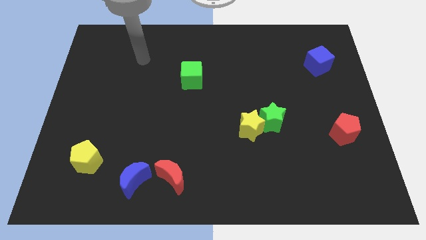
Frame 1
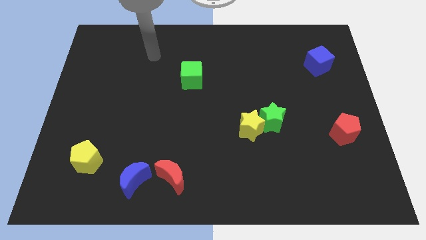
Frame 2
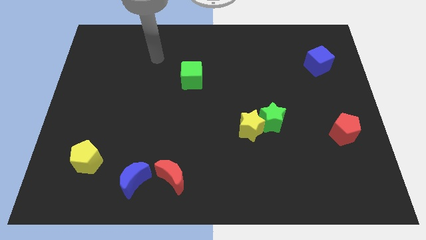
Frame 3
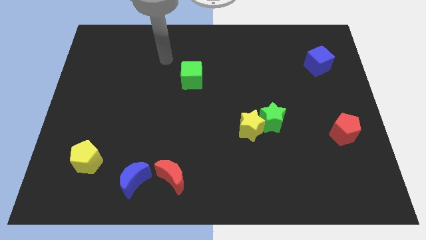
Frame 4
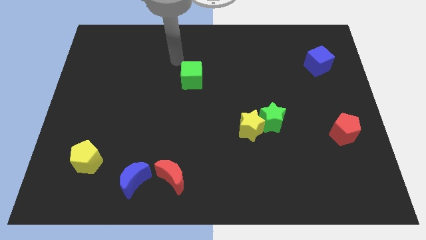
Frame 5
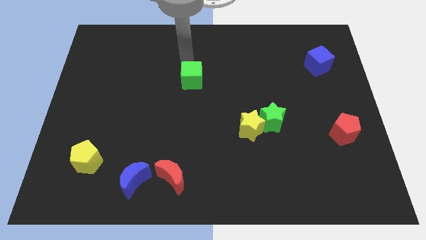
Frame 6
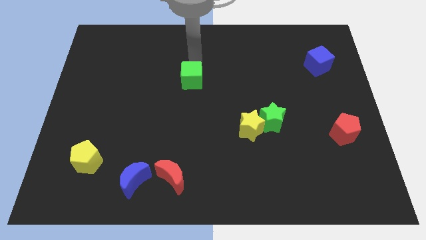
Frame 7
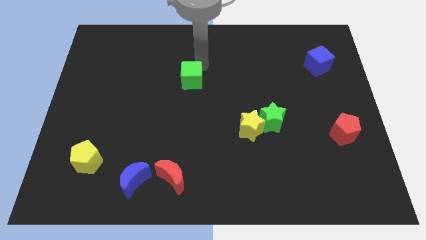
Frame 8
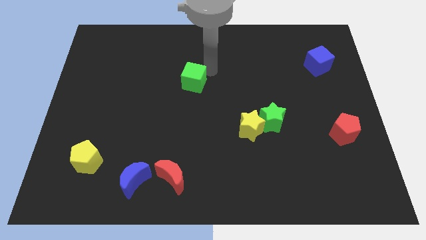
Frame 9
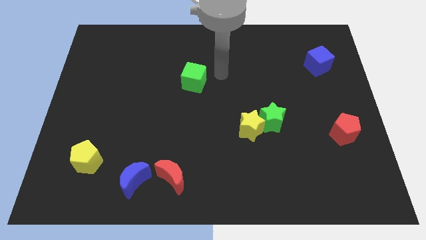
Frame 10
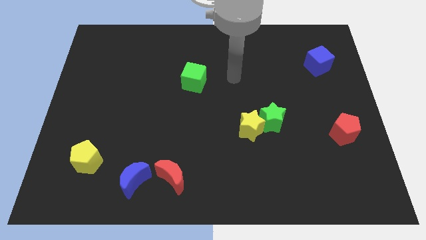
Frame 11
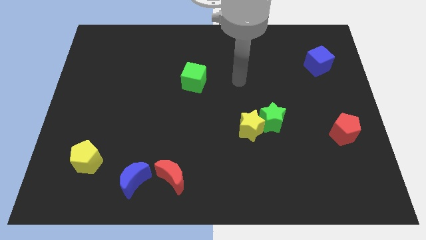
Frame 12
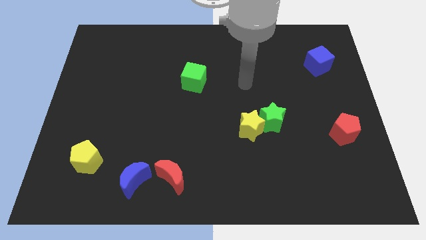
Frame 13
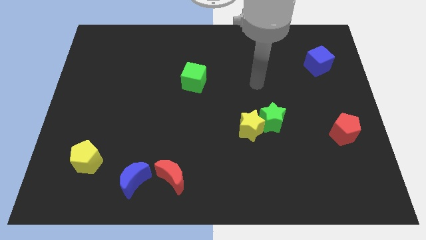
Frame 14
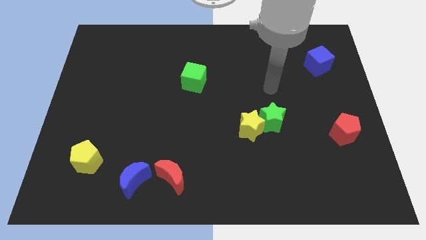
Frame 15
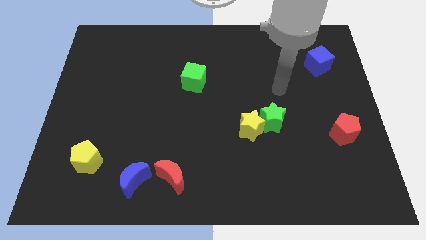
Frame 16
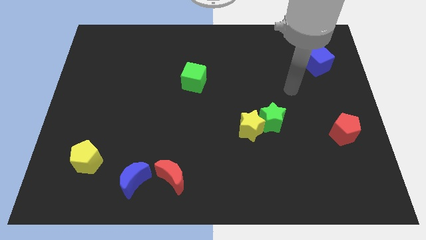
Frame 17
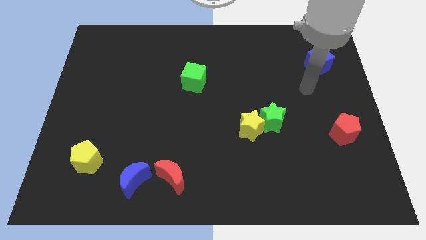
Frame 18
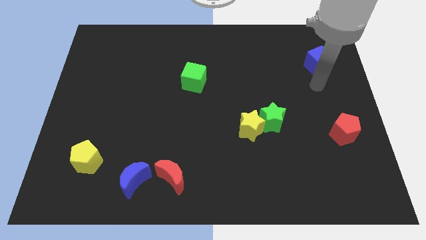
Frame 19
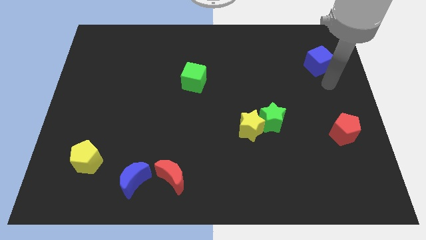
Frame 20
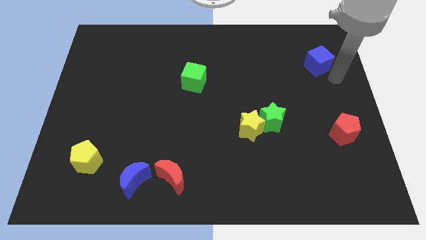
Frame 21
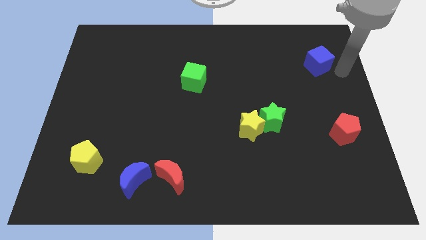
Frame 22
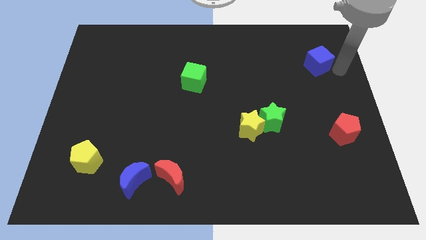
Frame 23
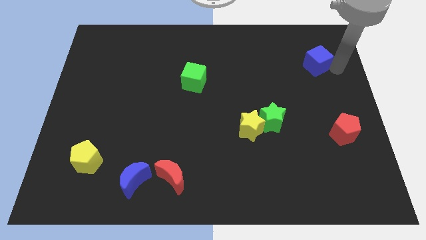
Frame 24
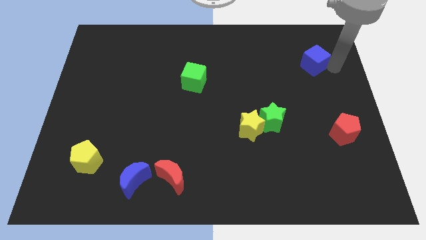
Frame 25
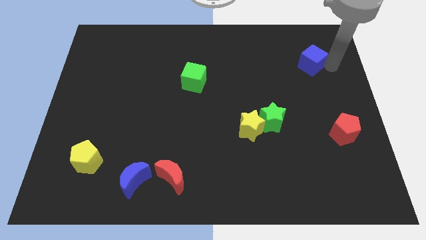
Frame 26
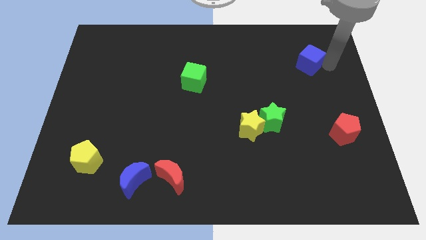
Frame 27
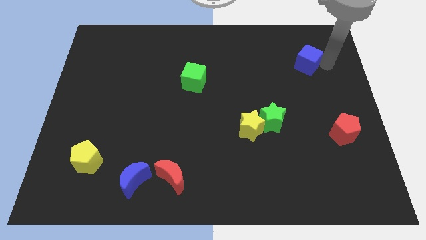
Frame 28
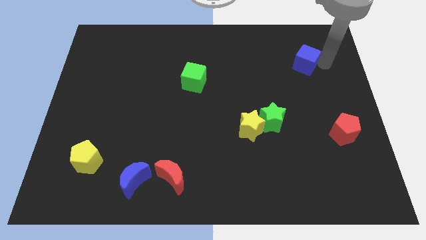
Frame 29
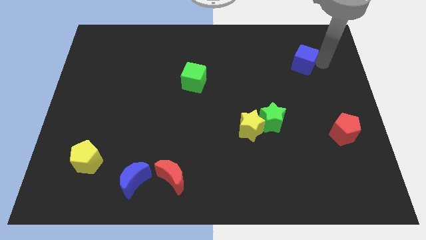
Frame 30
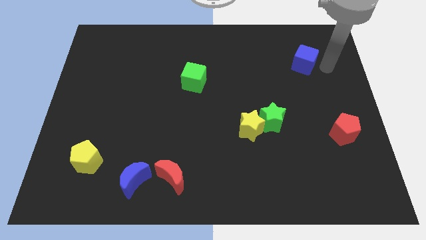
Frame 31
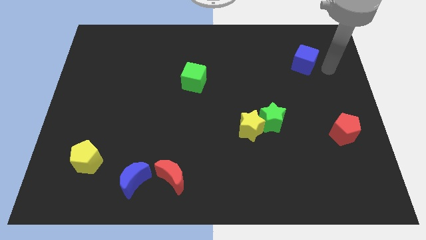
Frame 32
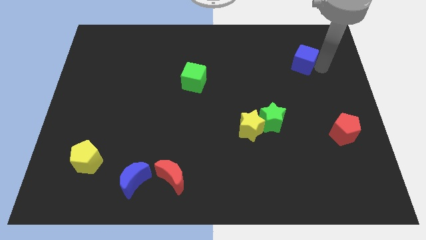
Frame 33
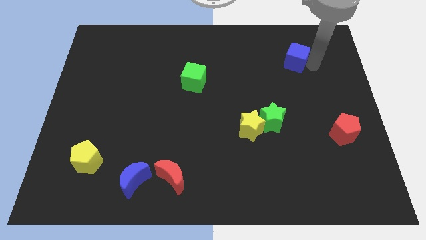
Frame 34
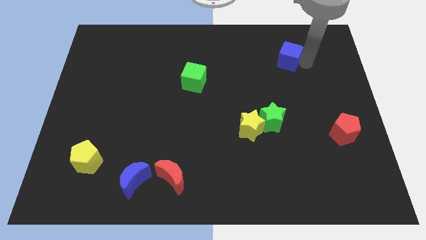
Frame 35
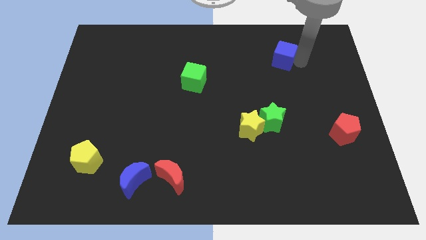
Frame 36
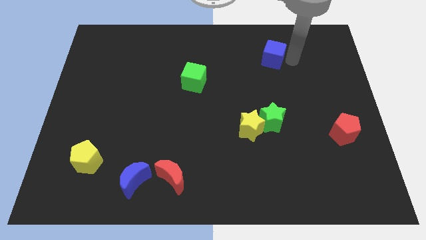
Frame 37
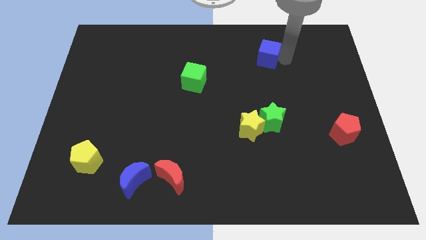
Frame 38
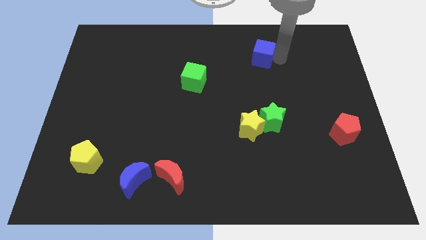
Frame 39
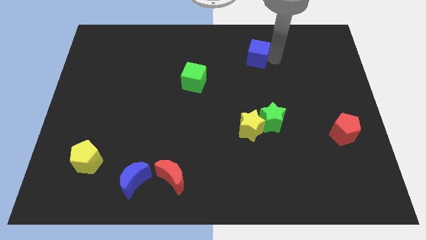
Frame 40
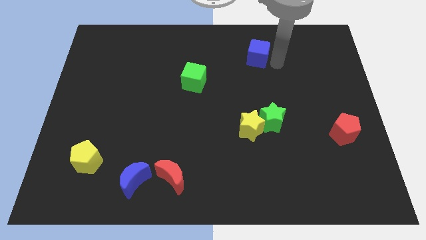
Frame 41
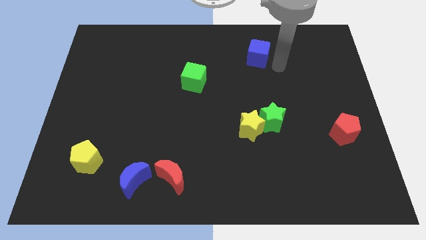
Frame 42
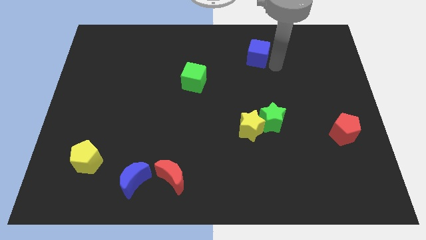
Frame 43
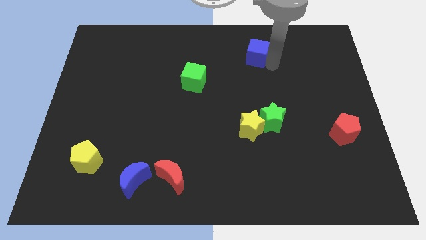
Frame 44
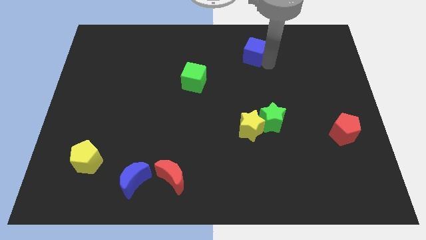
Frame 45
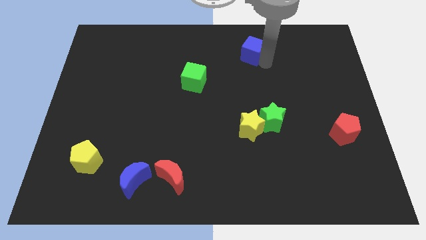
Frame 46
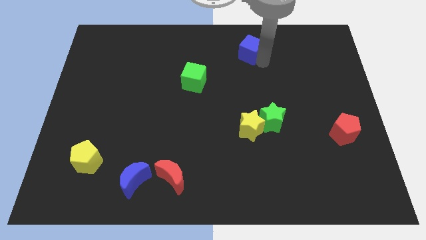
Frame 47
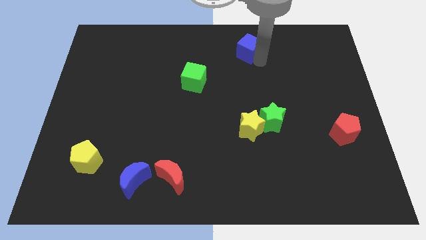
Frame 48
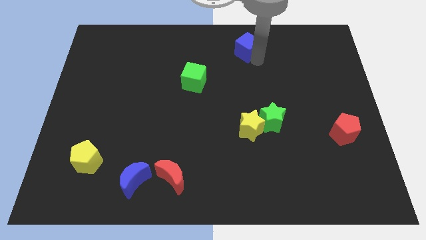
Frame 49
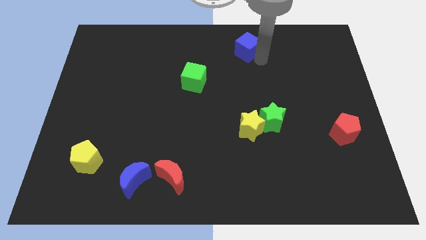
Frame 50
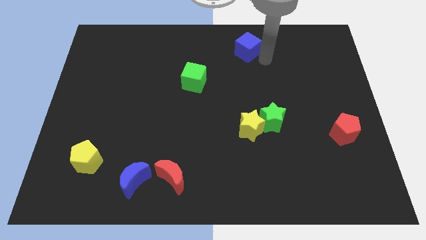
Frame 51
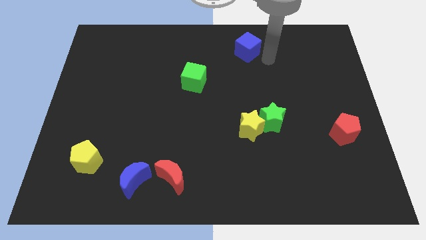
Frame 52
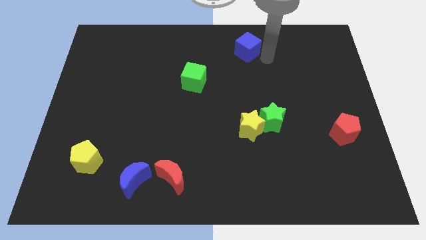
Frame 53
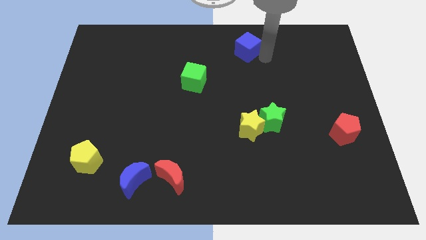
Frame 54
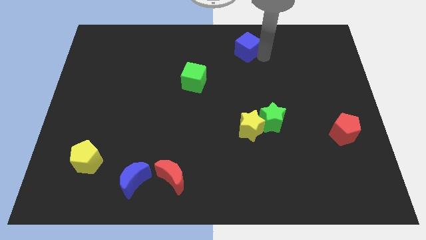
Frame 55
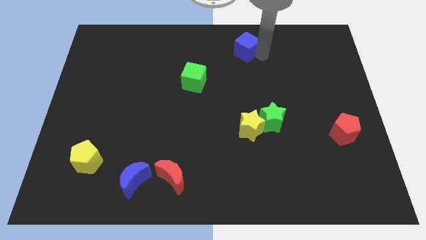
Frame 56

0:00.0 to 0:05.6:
slide the blue cube to the top

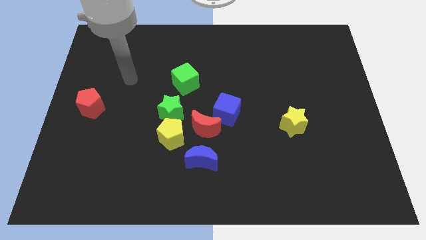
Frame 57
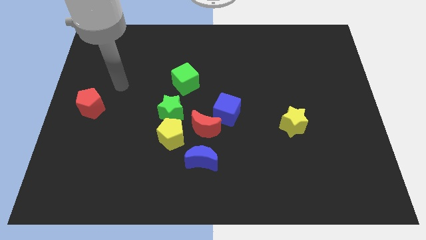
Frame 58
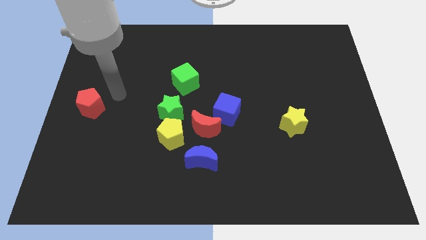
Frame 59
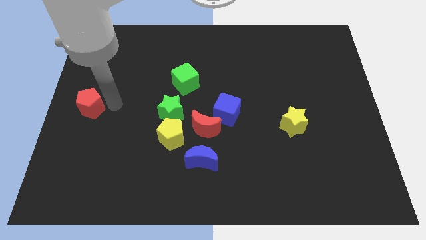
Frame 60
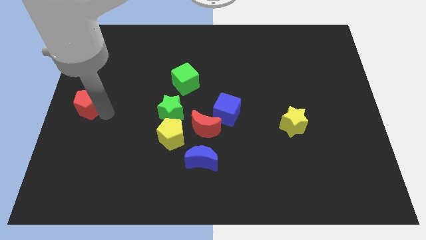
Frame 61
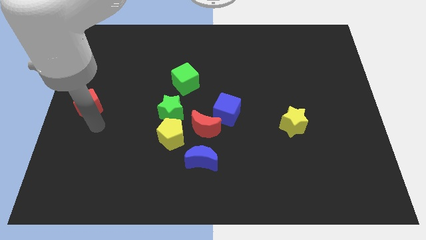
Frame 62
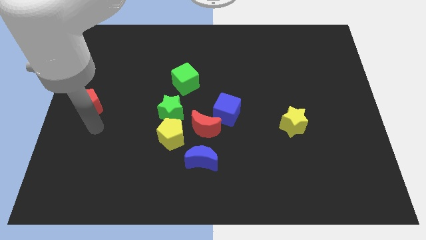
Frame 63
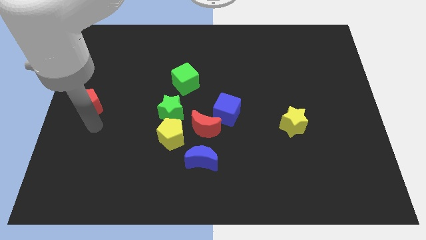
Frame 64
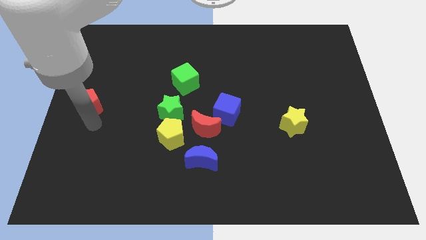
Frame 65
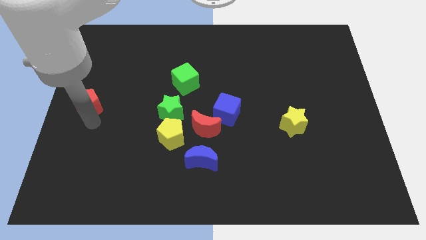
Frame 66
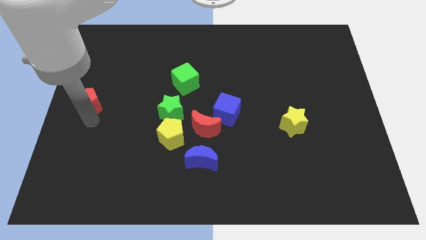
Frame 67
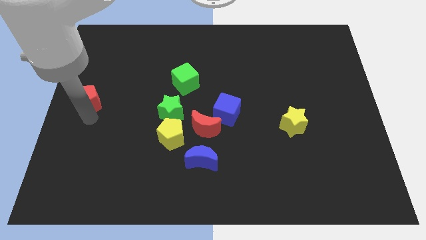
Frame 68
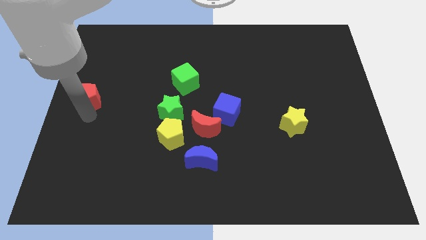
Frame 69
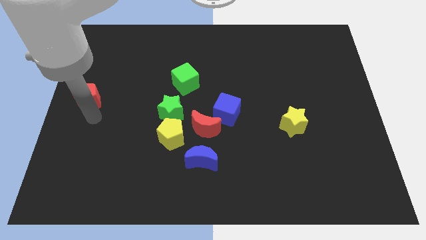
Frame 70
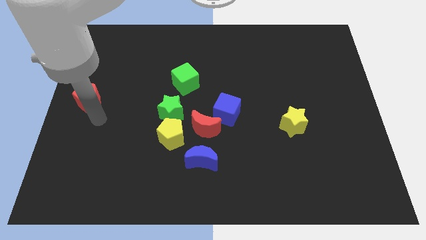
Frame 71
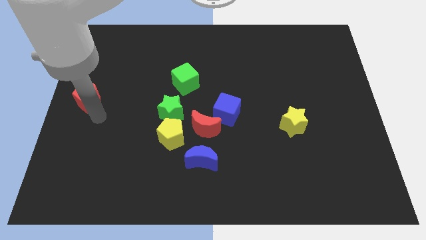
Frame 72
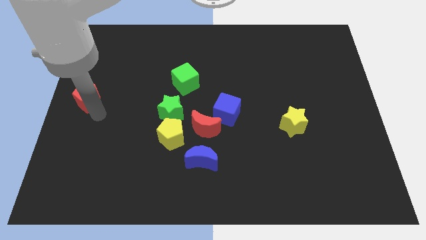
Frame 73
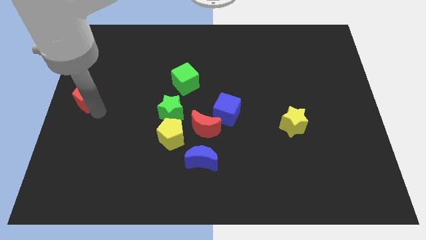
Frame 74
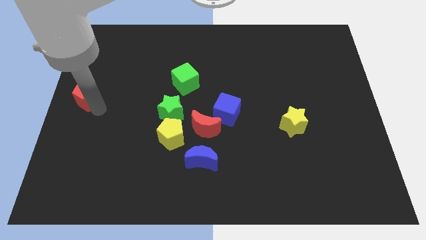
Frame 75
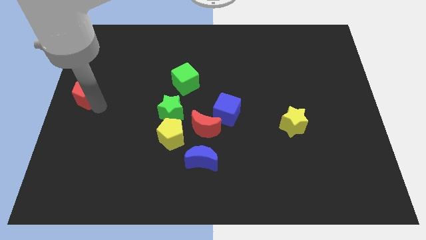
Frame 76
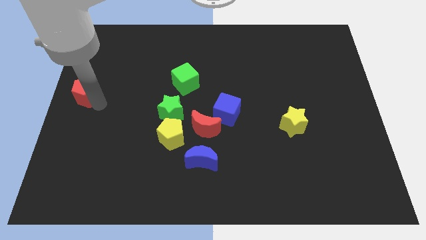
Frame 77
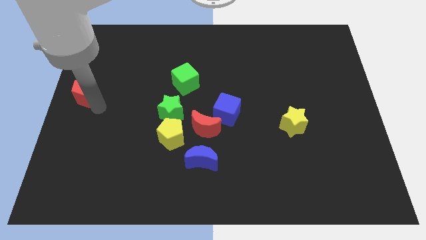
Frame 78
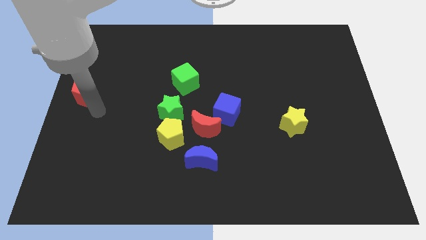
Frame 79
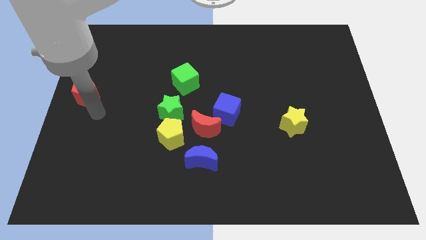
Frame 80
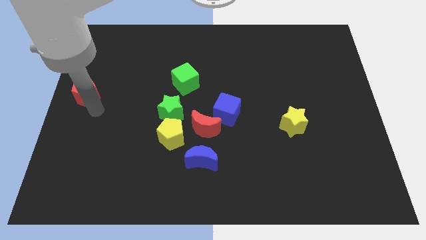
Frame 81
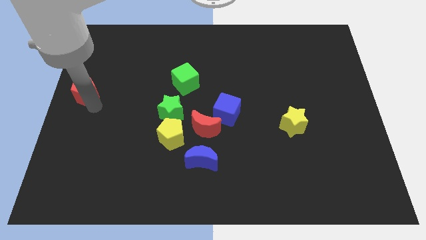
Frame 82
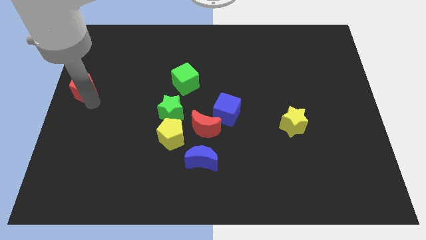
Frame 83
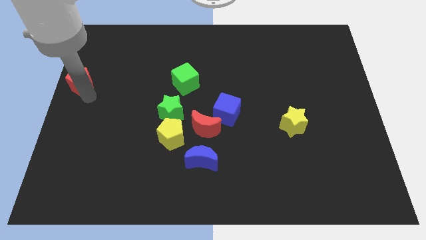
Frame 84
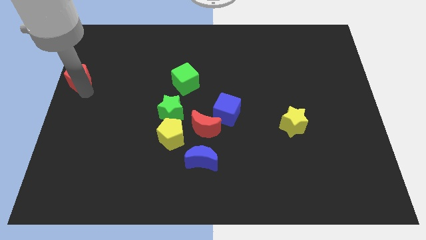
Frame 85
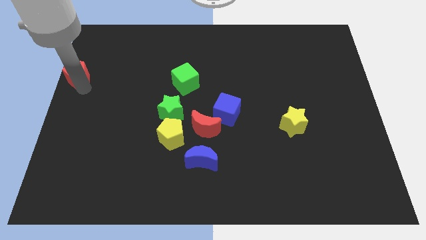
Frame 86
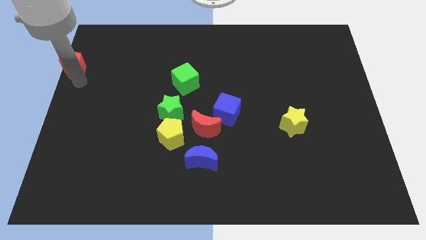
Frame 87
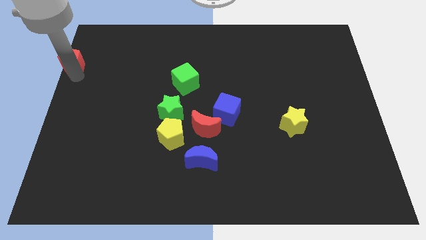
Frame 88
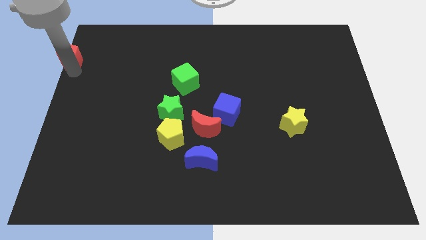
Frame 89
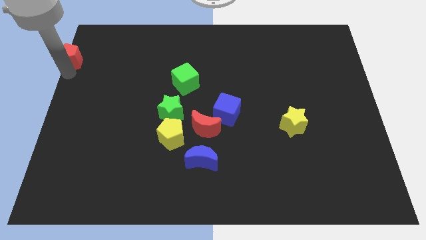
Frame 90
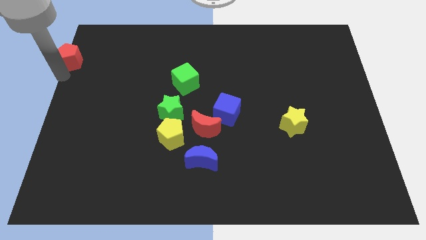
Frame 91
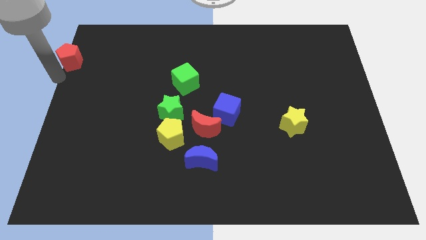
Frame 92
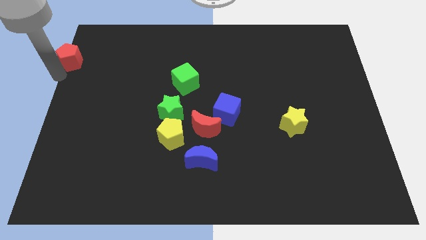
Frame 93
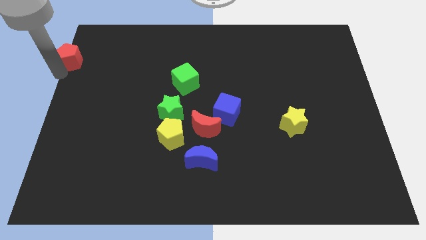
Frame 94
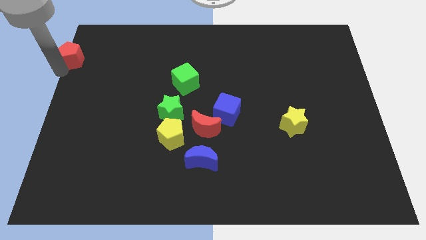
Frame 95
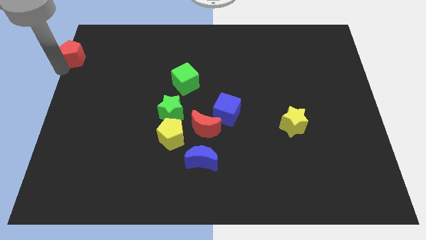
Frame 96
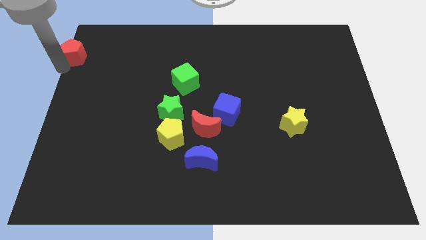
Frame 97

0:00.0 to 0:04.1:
slide the red pentagon to the upper left corner
